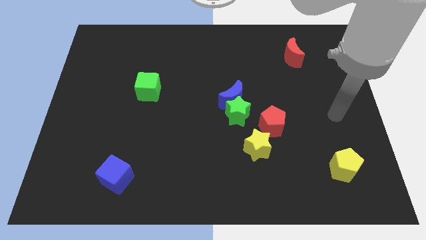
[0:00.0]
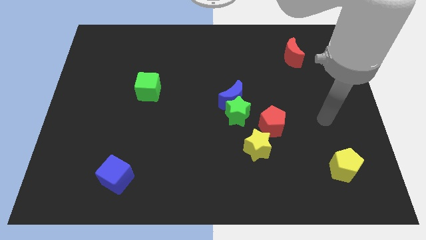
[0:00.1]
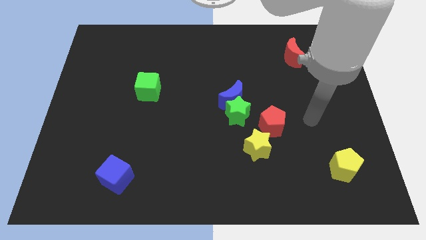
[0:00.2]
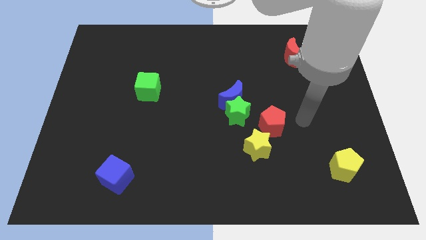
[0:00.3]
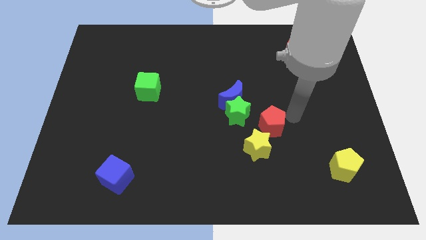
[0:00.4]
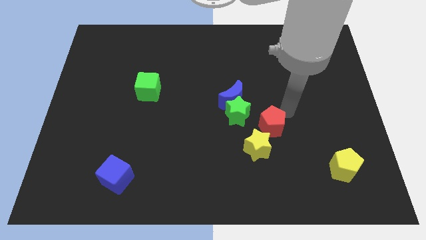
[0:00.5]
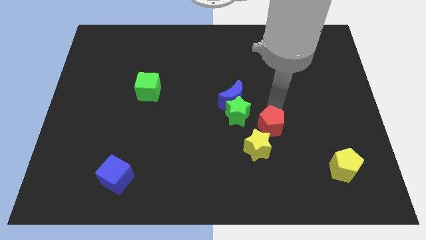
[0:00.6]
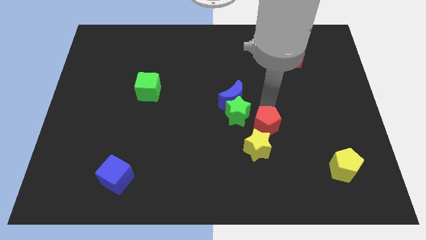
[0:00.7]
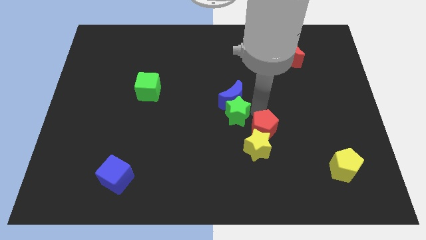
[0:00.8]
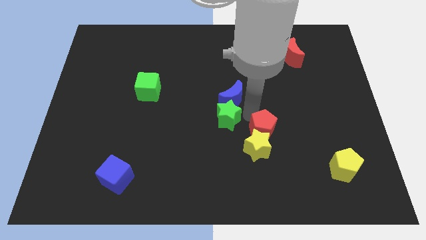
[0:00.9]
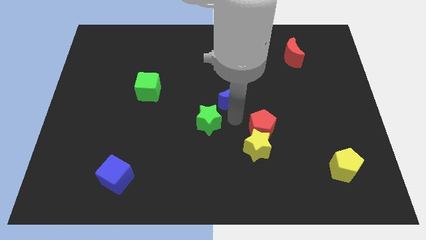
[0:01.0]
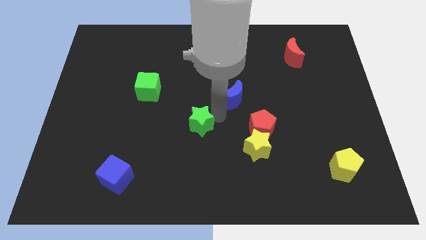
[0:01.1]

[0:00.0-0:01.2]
separate the blue moon from the green star

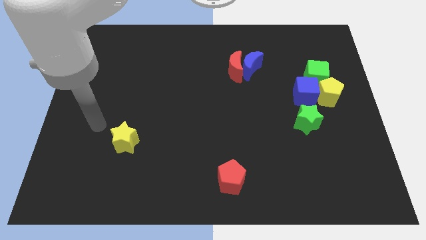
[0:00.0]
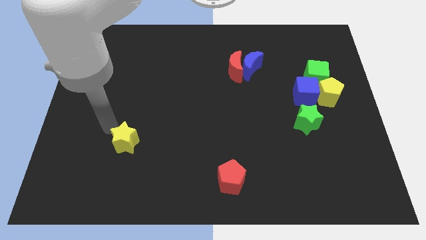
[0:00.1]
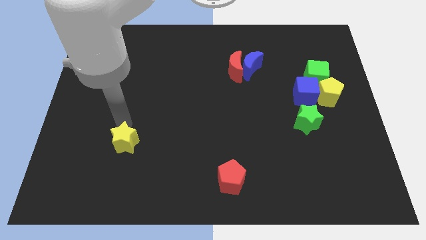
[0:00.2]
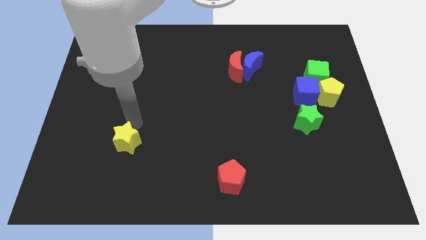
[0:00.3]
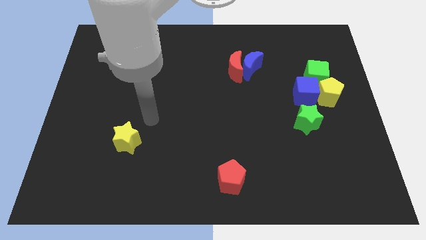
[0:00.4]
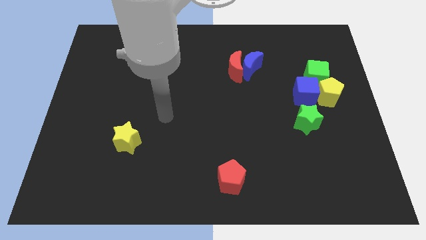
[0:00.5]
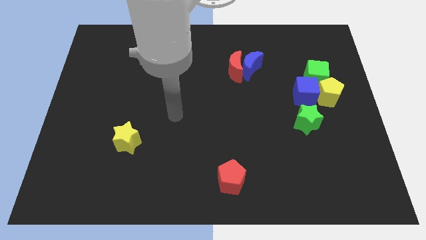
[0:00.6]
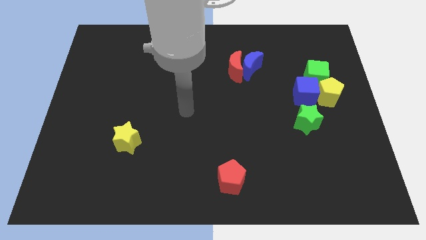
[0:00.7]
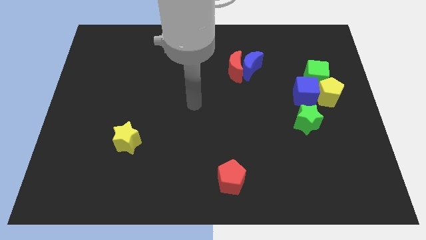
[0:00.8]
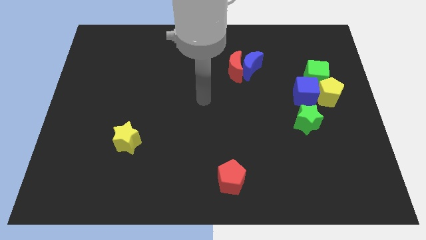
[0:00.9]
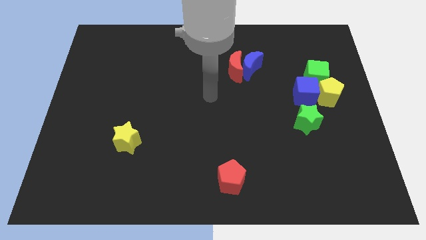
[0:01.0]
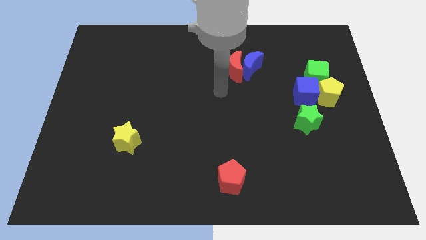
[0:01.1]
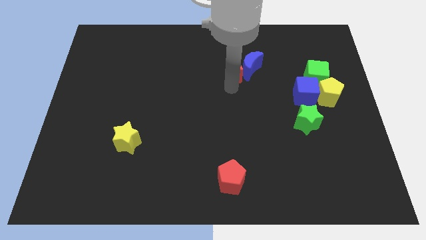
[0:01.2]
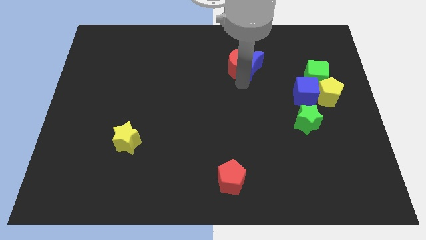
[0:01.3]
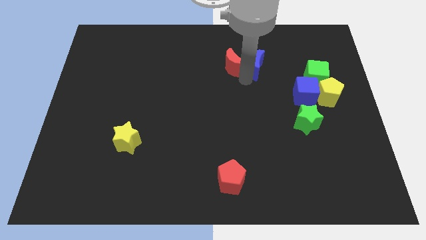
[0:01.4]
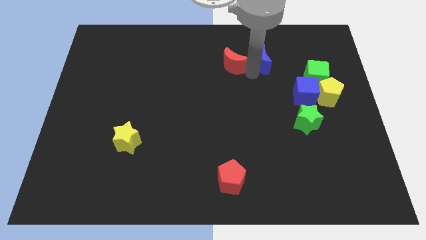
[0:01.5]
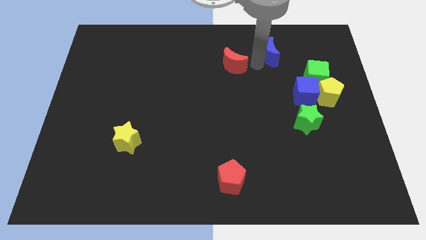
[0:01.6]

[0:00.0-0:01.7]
pull the red moon apart from the blue moon

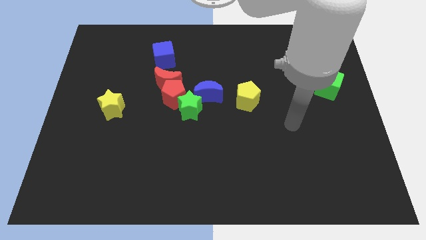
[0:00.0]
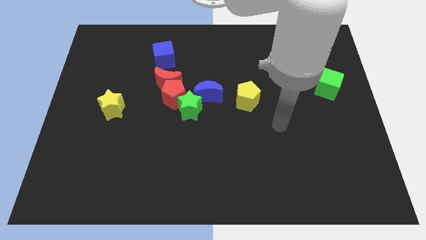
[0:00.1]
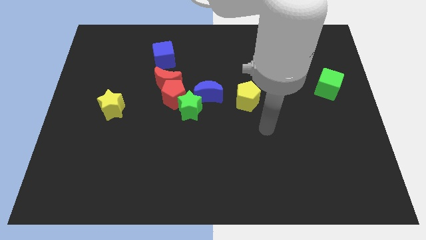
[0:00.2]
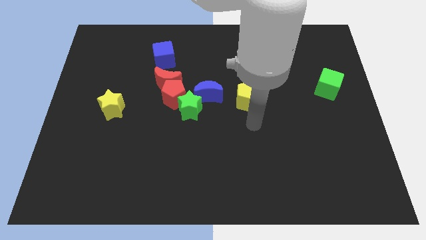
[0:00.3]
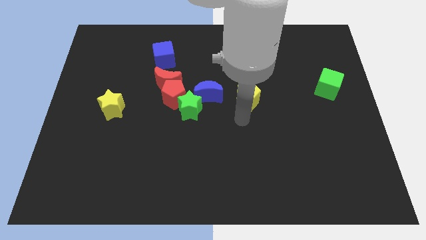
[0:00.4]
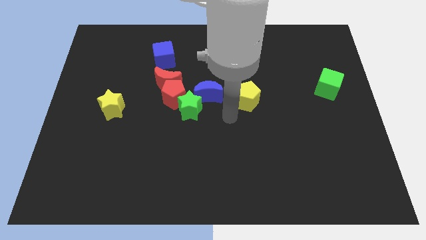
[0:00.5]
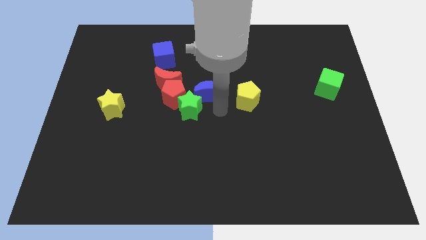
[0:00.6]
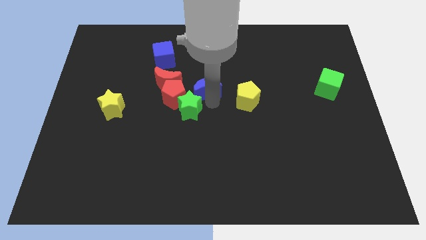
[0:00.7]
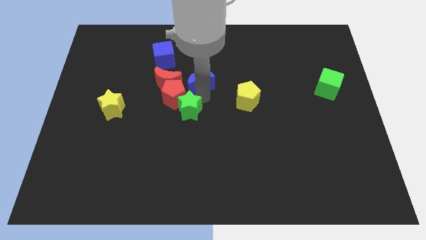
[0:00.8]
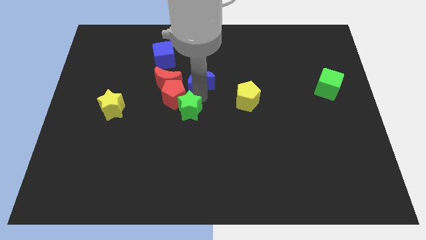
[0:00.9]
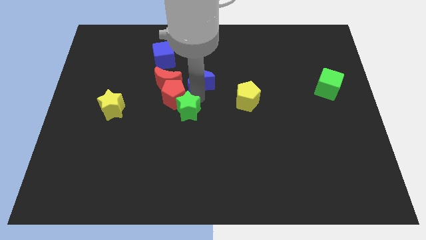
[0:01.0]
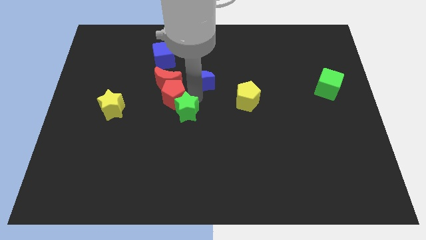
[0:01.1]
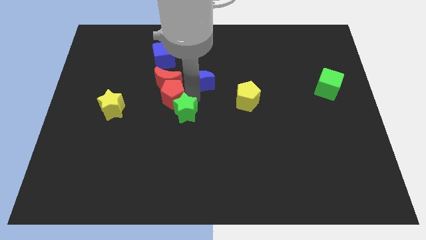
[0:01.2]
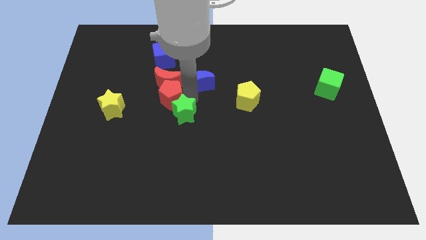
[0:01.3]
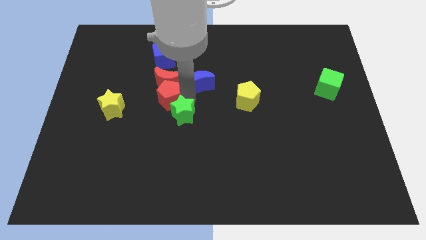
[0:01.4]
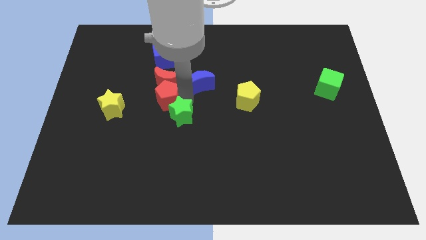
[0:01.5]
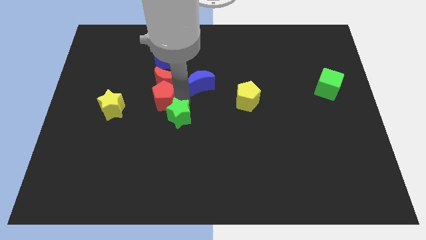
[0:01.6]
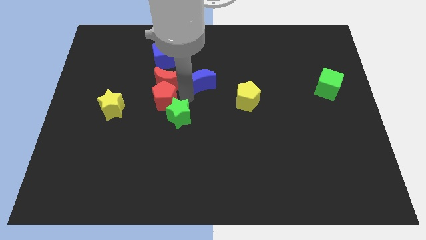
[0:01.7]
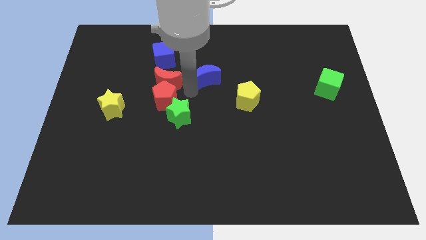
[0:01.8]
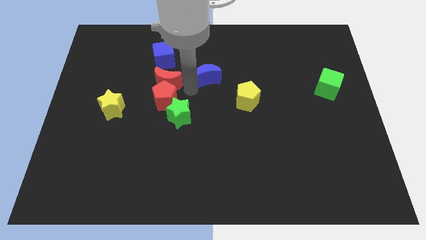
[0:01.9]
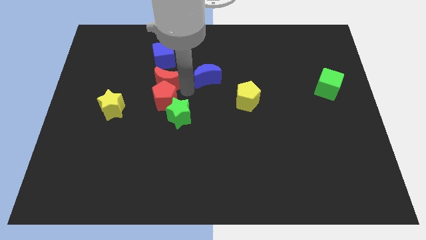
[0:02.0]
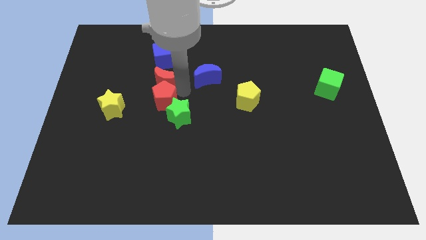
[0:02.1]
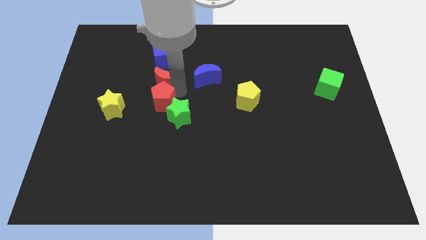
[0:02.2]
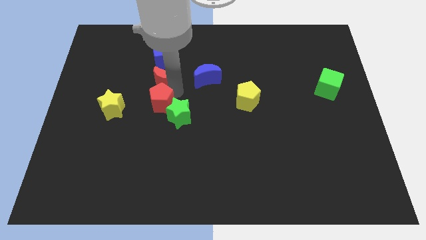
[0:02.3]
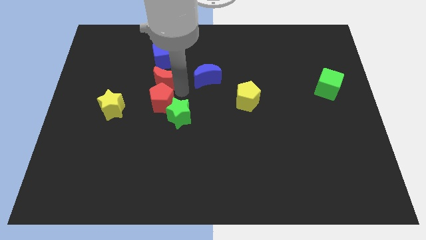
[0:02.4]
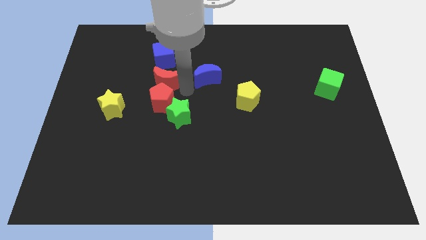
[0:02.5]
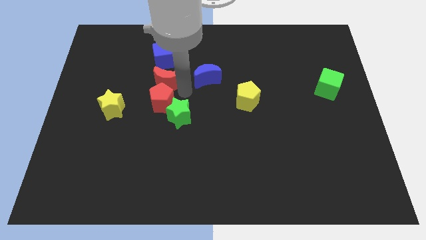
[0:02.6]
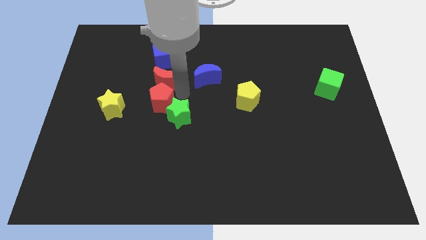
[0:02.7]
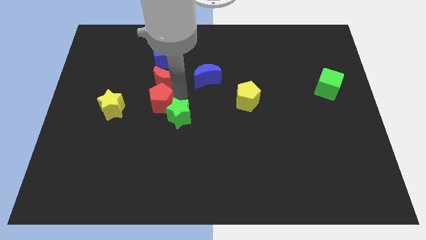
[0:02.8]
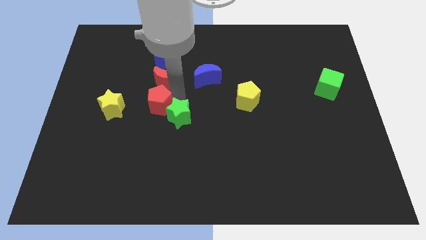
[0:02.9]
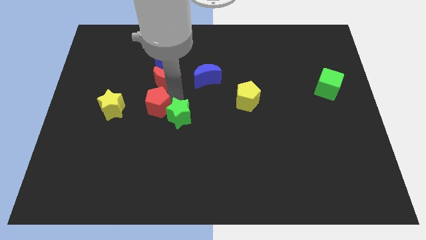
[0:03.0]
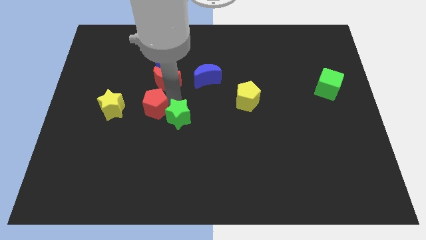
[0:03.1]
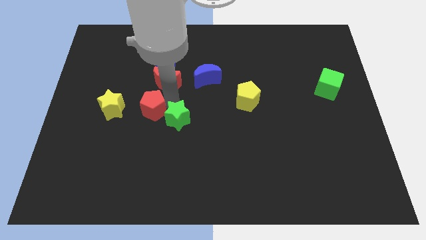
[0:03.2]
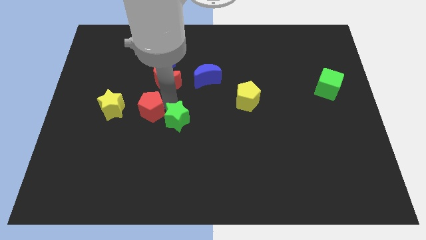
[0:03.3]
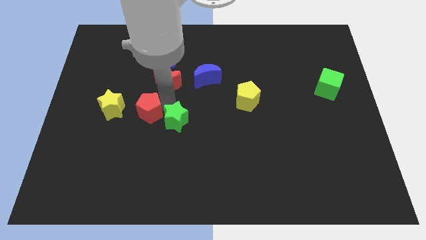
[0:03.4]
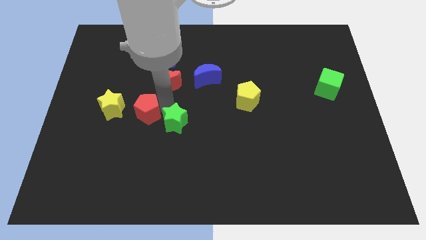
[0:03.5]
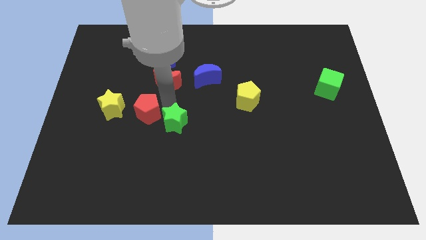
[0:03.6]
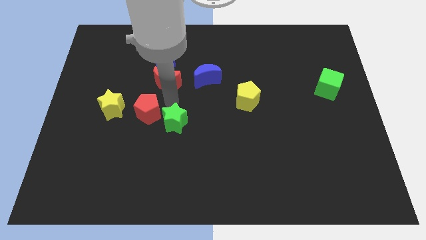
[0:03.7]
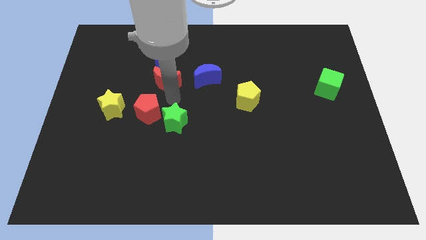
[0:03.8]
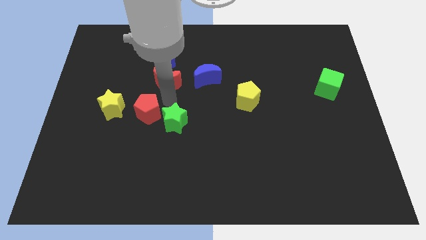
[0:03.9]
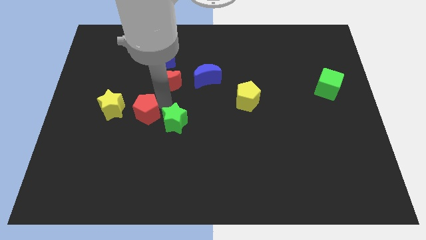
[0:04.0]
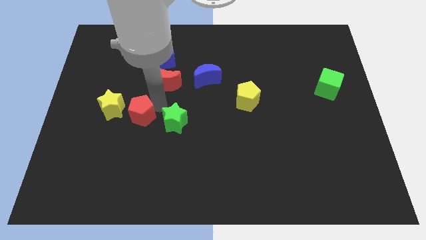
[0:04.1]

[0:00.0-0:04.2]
separate the red pentagon from the clump

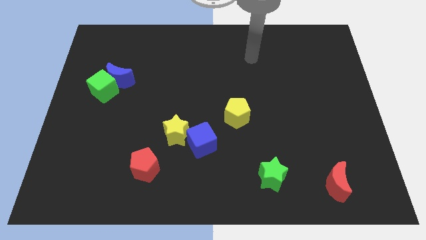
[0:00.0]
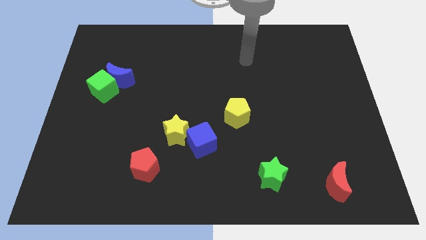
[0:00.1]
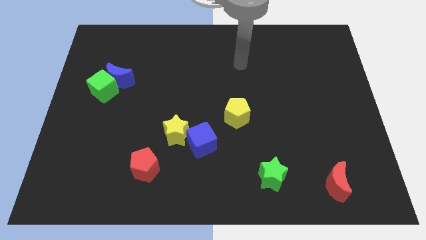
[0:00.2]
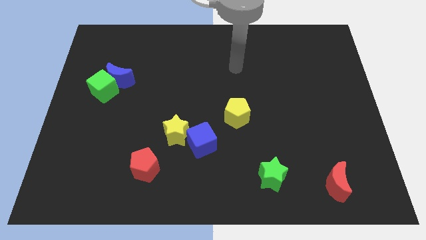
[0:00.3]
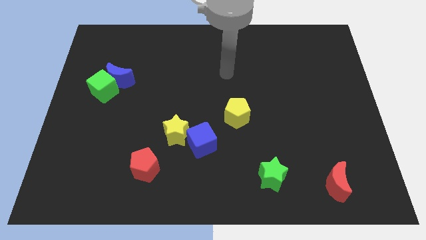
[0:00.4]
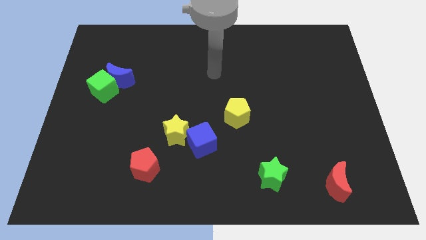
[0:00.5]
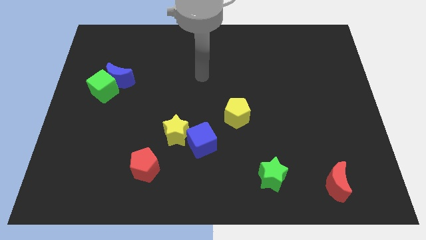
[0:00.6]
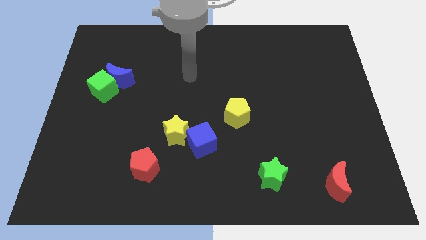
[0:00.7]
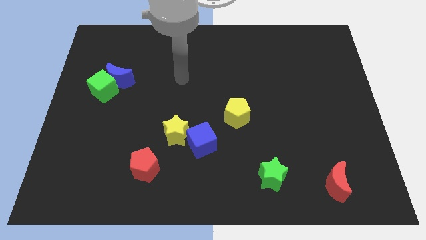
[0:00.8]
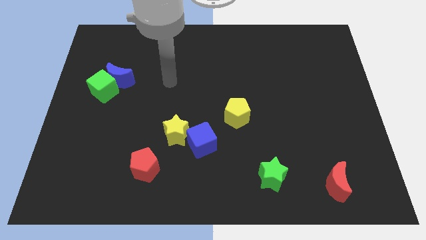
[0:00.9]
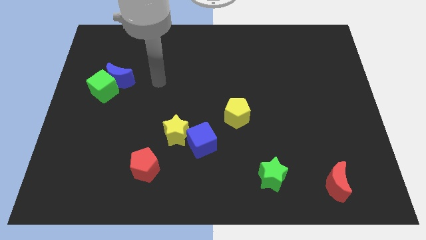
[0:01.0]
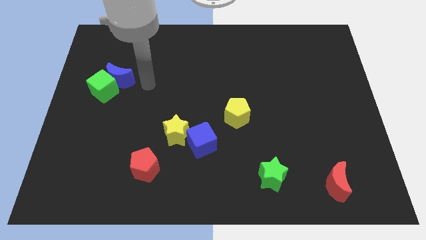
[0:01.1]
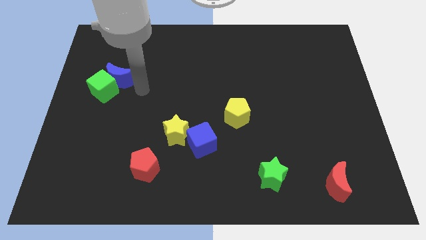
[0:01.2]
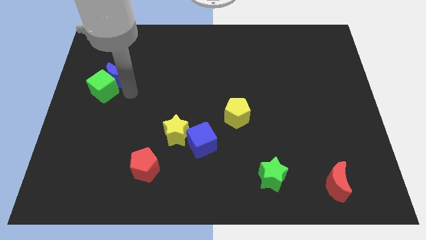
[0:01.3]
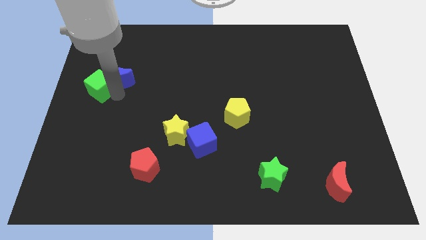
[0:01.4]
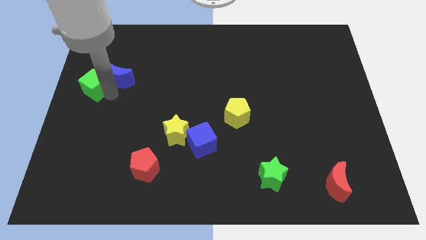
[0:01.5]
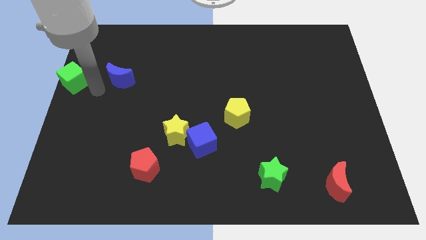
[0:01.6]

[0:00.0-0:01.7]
separate the blue moon from the green cube

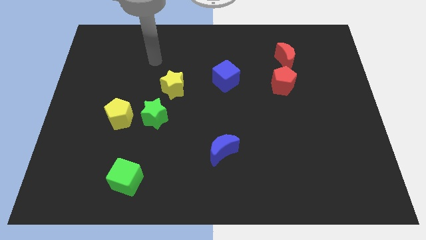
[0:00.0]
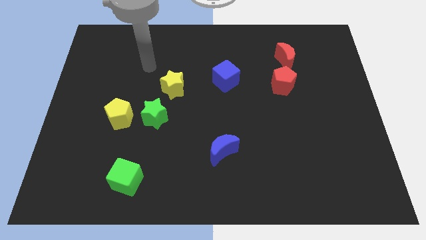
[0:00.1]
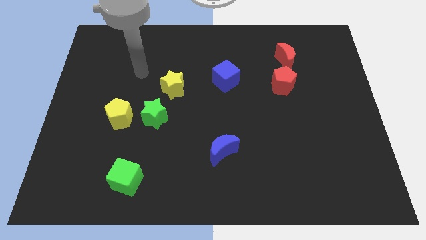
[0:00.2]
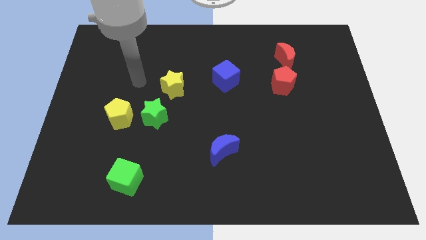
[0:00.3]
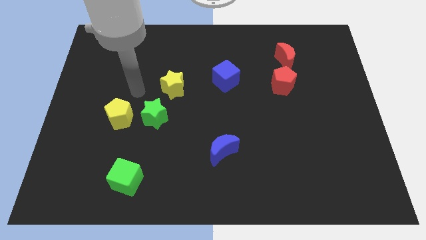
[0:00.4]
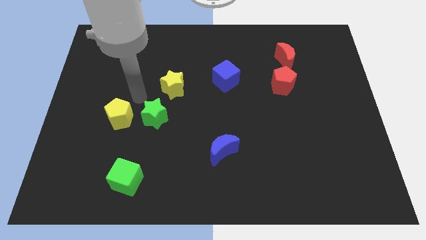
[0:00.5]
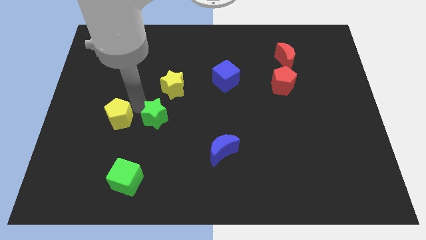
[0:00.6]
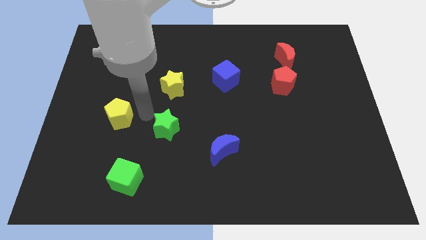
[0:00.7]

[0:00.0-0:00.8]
move the yellow pentagon away from the green star

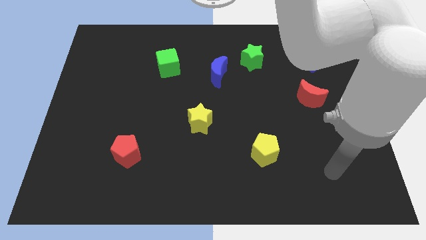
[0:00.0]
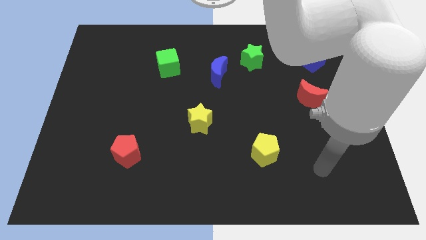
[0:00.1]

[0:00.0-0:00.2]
pull the blue moon apart from the green star
